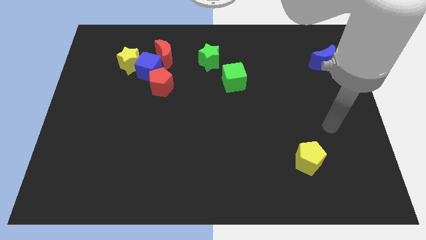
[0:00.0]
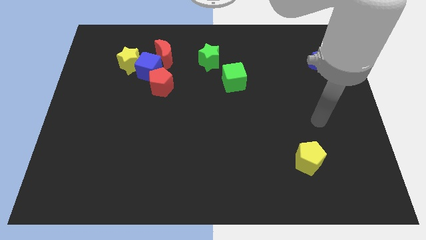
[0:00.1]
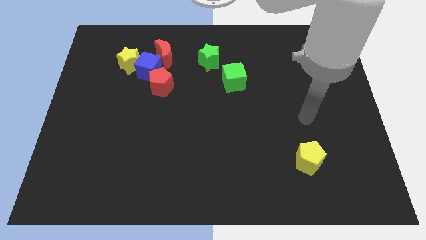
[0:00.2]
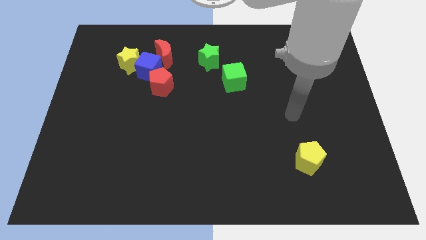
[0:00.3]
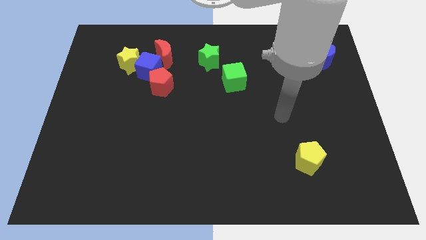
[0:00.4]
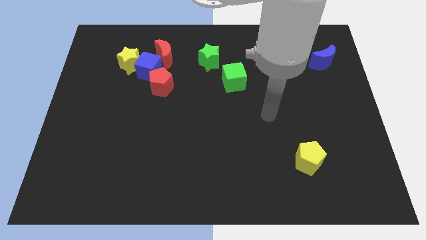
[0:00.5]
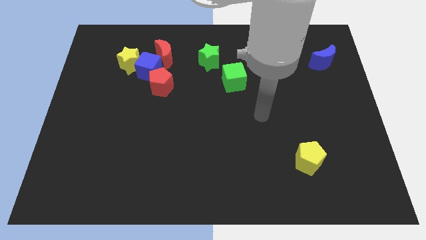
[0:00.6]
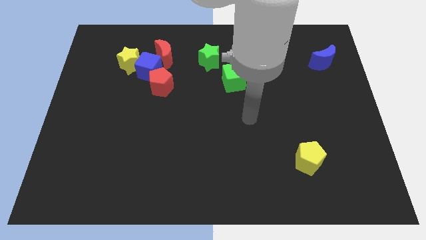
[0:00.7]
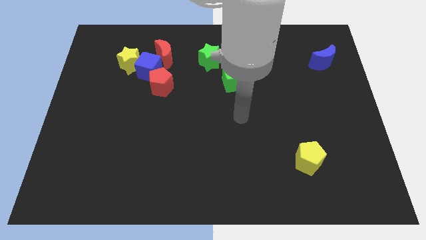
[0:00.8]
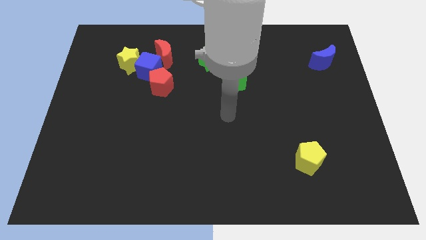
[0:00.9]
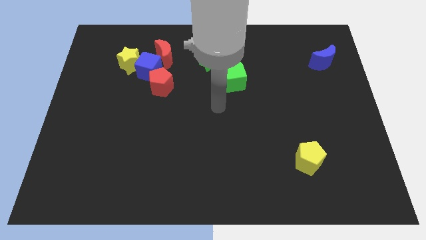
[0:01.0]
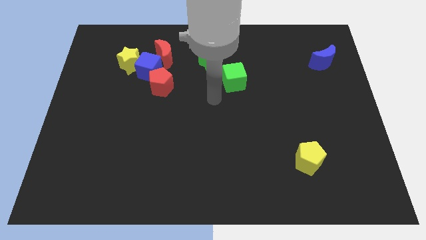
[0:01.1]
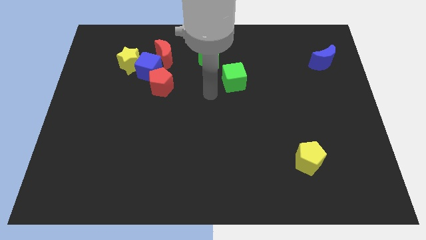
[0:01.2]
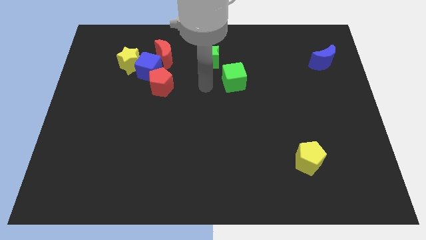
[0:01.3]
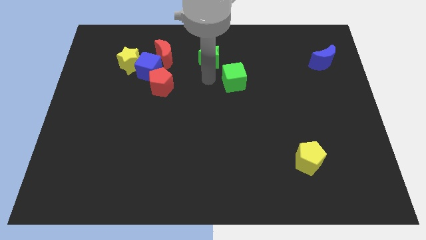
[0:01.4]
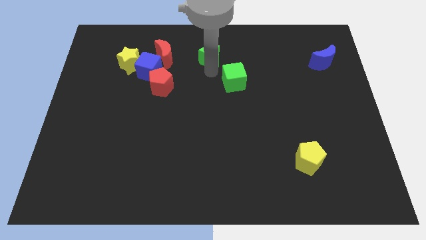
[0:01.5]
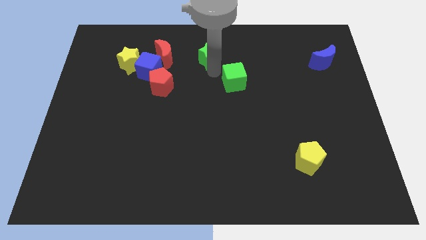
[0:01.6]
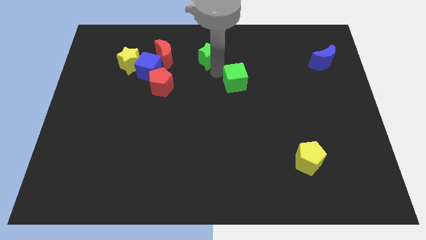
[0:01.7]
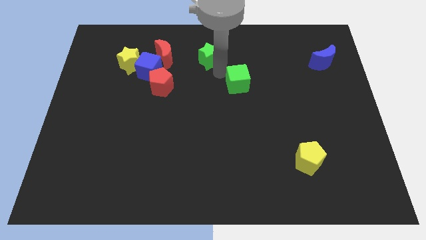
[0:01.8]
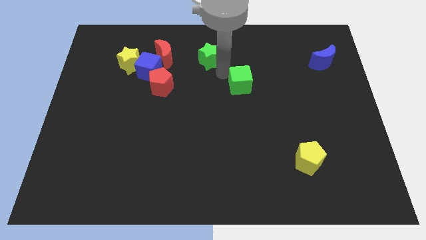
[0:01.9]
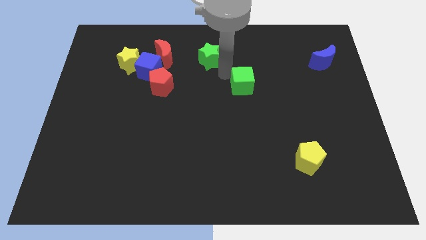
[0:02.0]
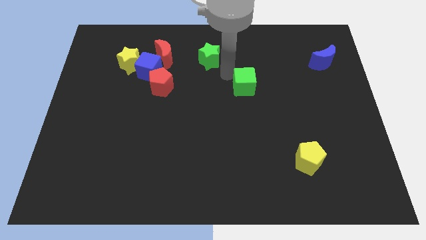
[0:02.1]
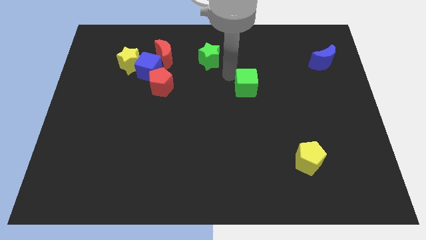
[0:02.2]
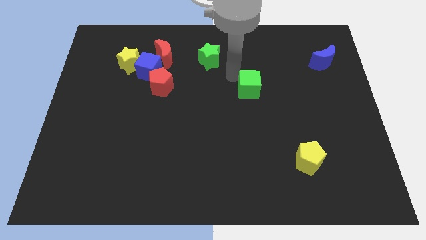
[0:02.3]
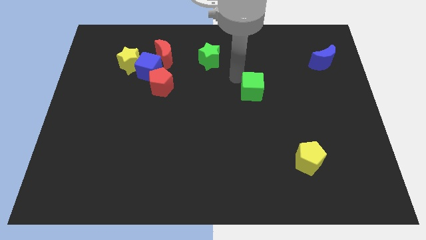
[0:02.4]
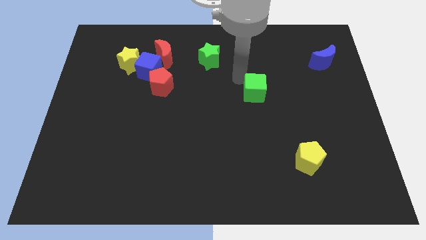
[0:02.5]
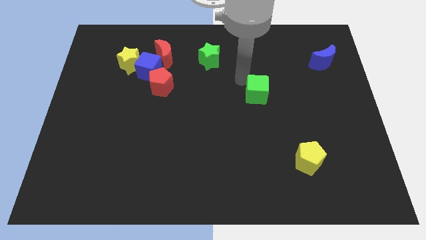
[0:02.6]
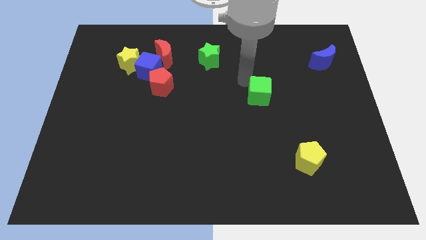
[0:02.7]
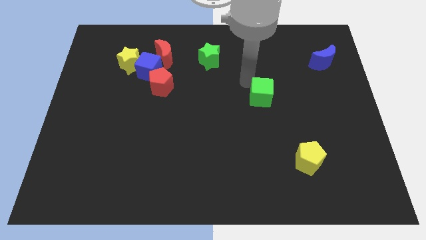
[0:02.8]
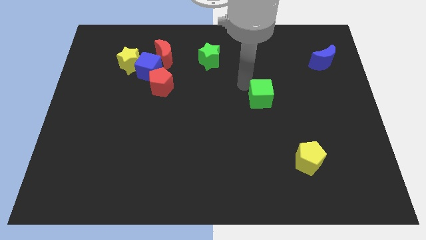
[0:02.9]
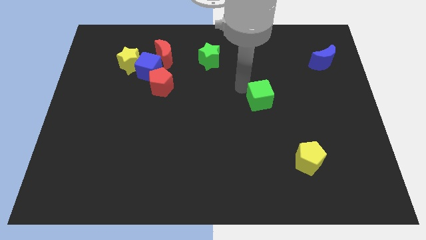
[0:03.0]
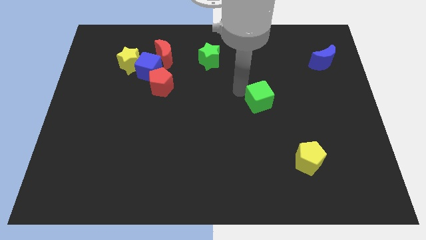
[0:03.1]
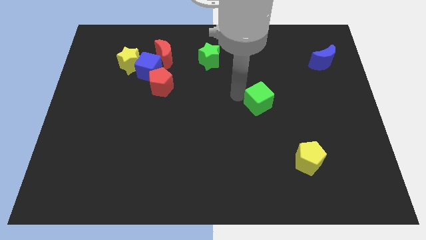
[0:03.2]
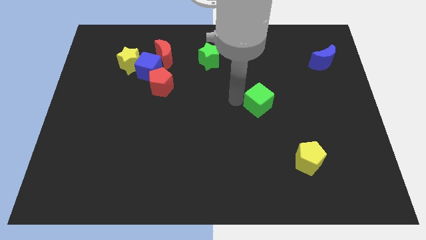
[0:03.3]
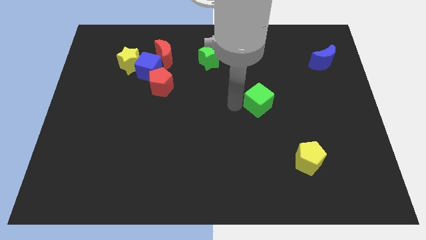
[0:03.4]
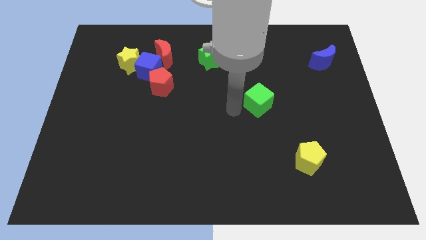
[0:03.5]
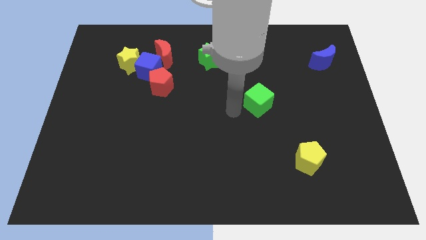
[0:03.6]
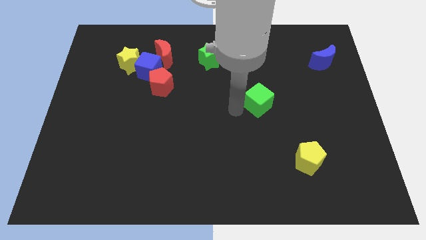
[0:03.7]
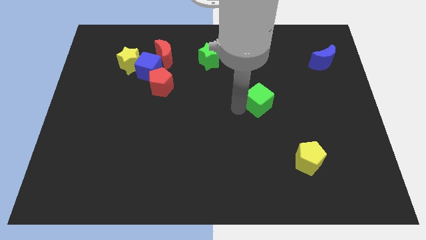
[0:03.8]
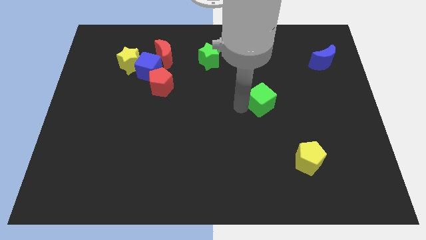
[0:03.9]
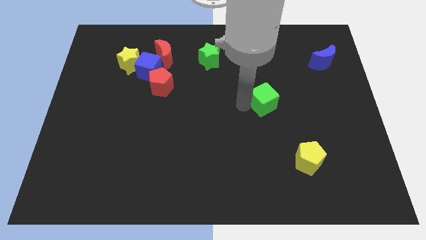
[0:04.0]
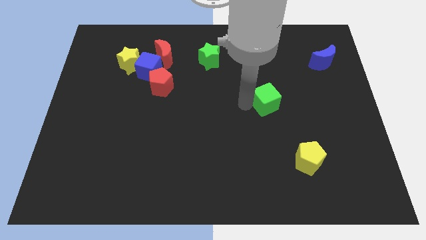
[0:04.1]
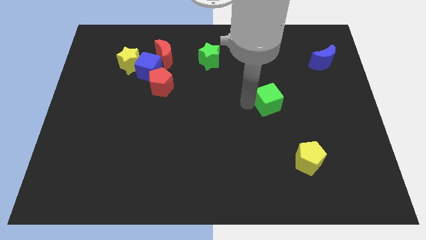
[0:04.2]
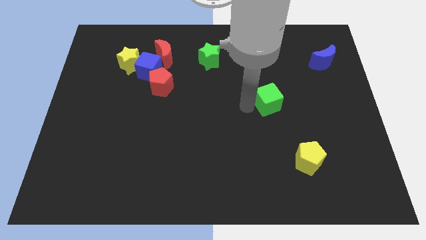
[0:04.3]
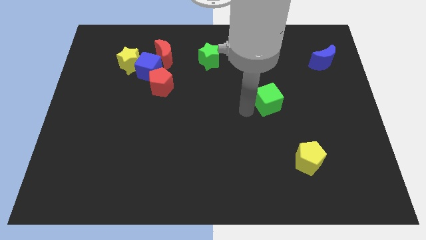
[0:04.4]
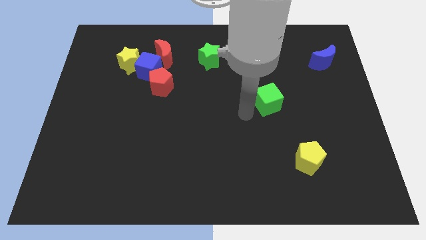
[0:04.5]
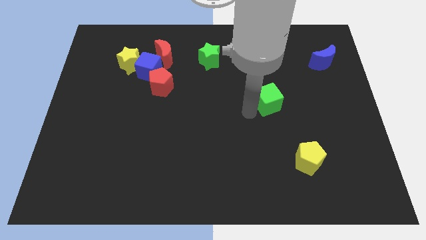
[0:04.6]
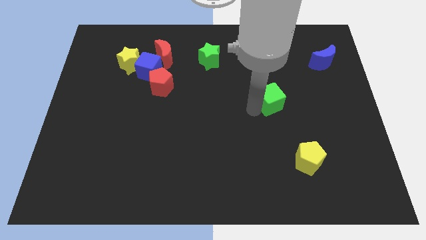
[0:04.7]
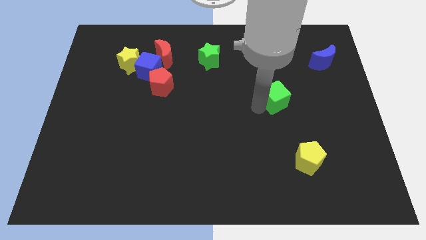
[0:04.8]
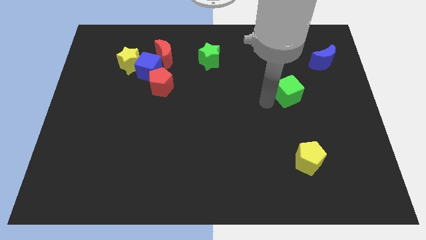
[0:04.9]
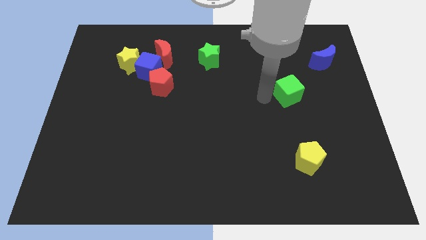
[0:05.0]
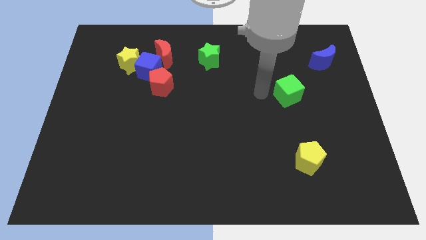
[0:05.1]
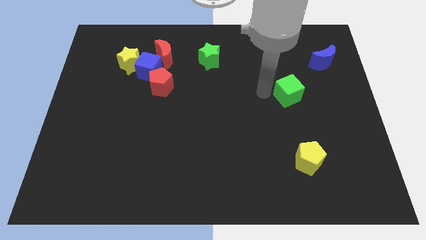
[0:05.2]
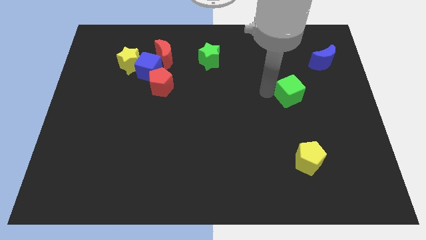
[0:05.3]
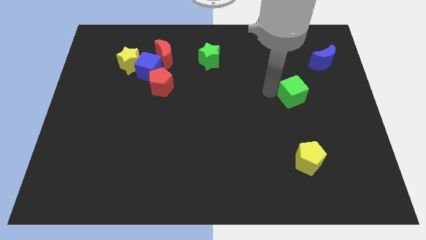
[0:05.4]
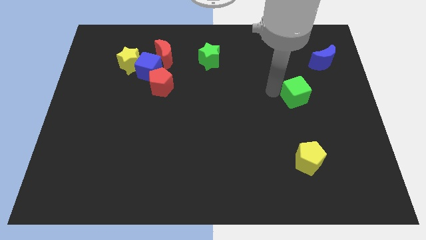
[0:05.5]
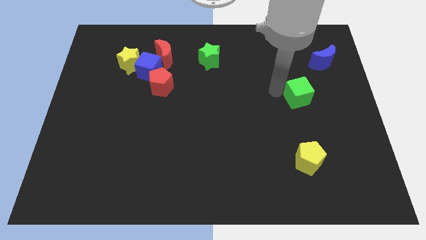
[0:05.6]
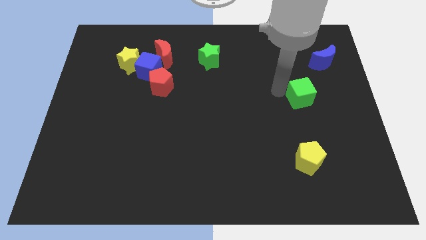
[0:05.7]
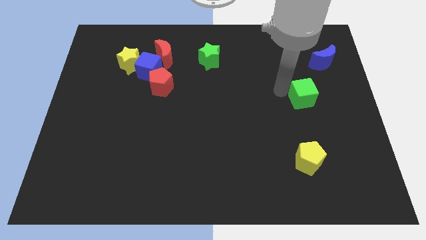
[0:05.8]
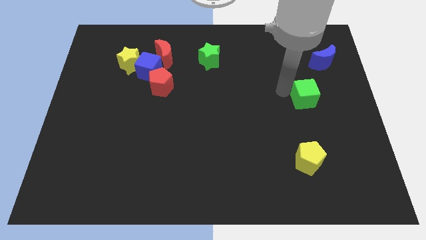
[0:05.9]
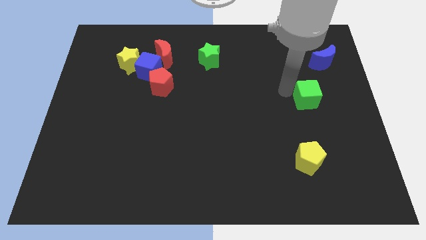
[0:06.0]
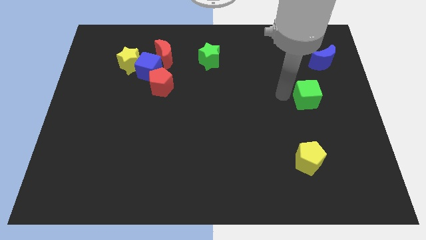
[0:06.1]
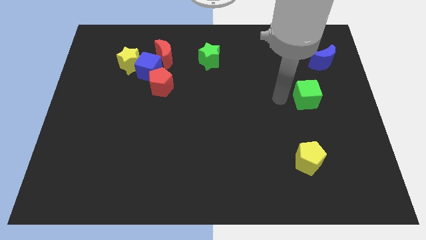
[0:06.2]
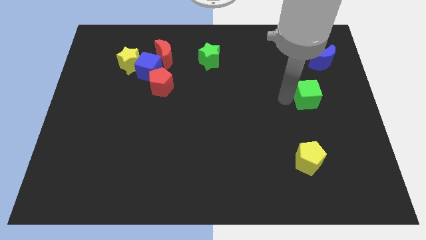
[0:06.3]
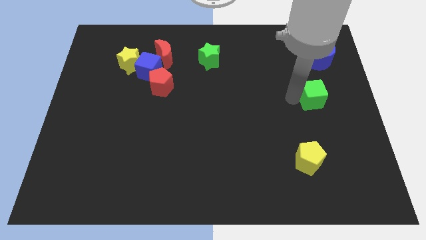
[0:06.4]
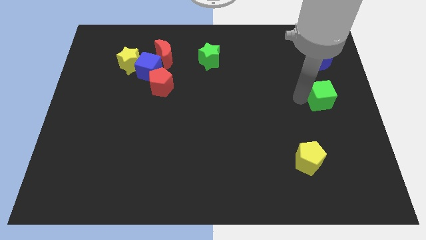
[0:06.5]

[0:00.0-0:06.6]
push the green cube to the right side of the board
